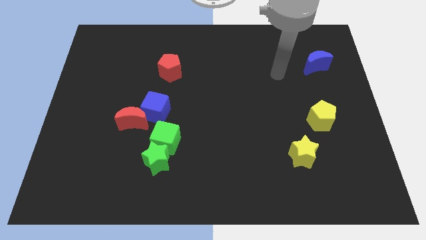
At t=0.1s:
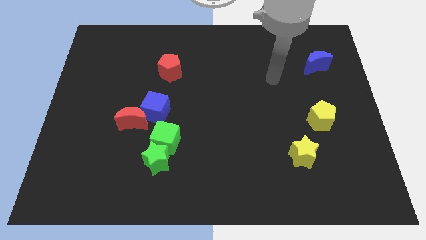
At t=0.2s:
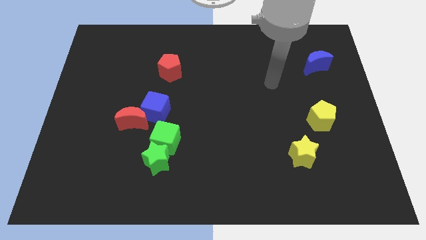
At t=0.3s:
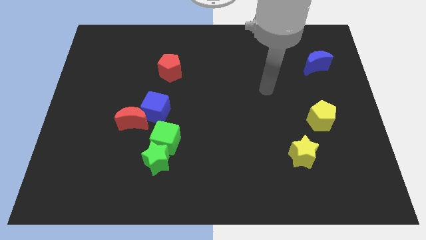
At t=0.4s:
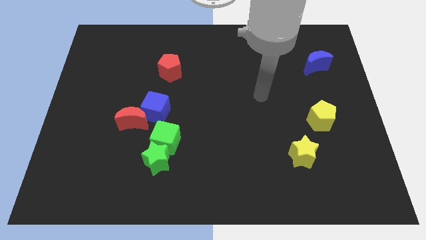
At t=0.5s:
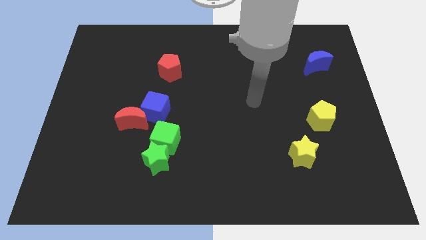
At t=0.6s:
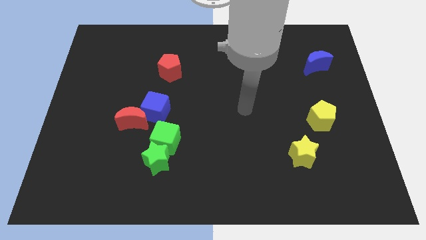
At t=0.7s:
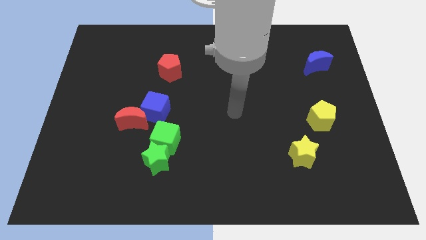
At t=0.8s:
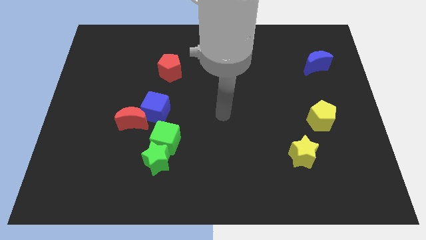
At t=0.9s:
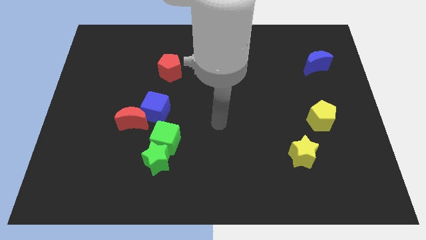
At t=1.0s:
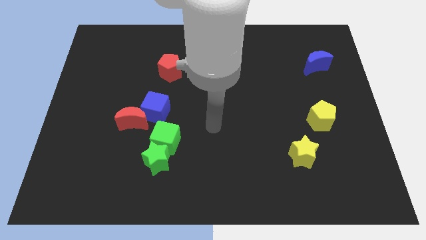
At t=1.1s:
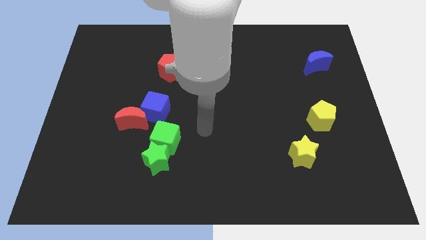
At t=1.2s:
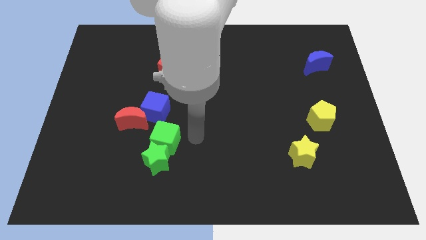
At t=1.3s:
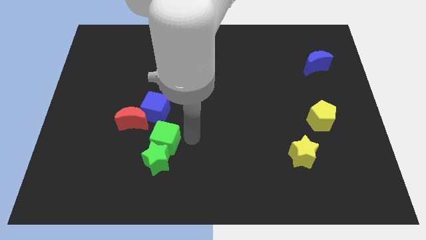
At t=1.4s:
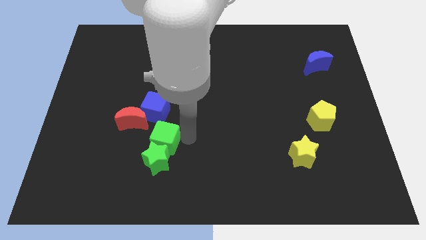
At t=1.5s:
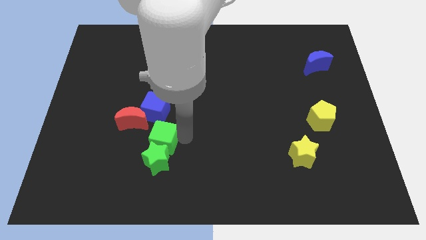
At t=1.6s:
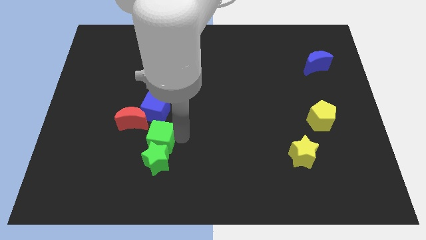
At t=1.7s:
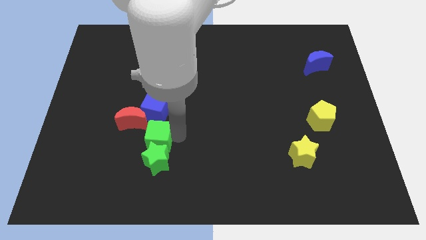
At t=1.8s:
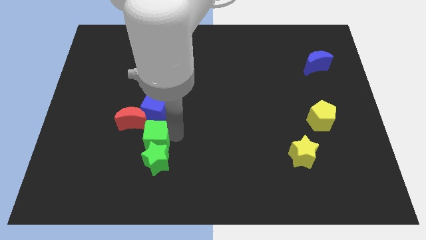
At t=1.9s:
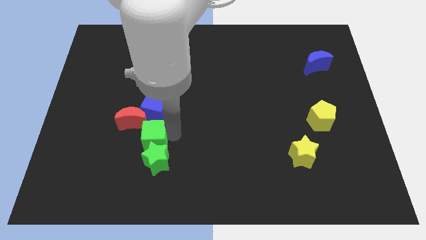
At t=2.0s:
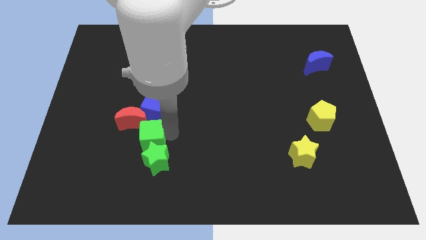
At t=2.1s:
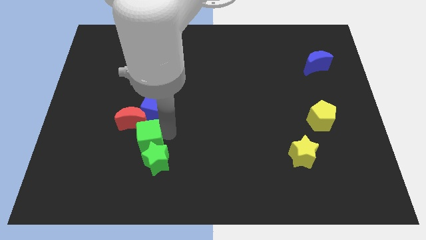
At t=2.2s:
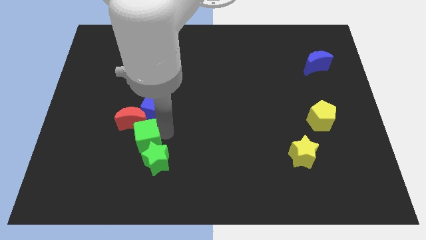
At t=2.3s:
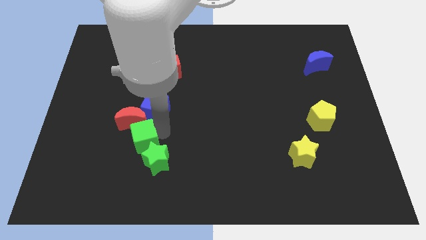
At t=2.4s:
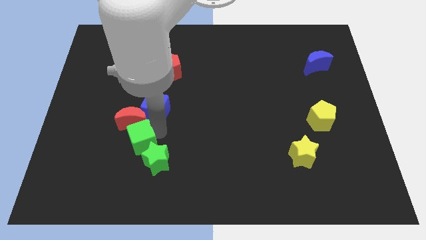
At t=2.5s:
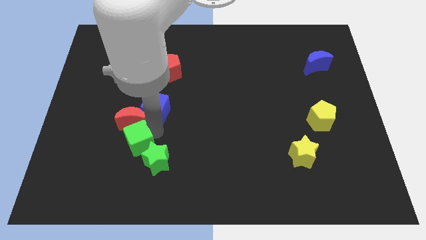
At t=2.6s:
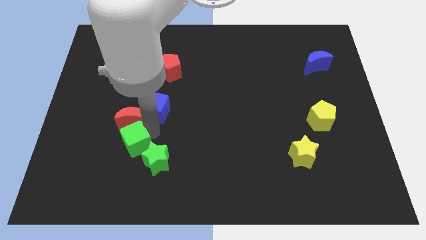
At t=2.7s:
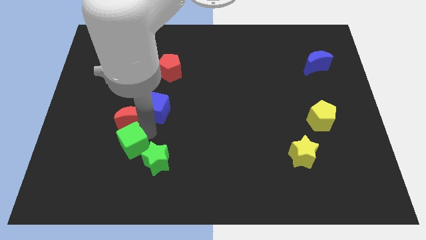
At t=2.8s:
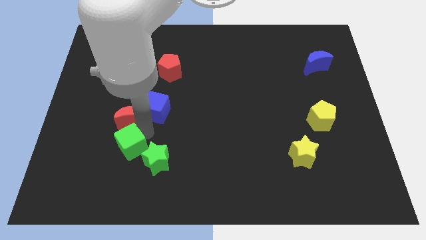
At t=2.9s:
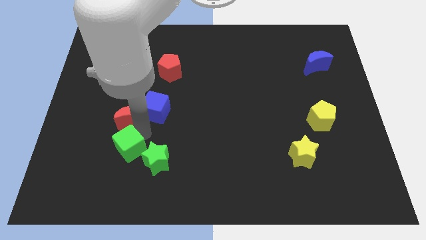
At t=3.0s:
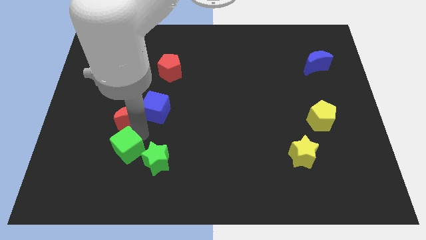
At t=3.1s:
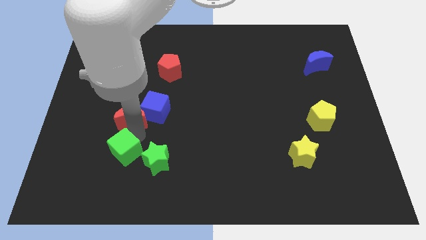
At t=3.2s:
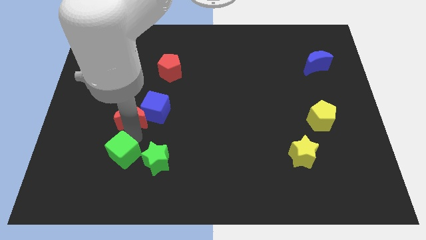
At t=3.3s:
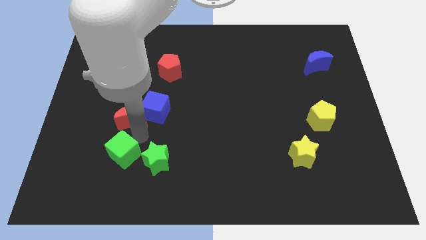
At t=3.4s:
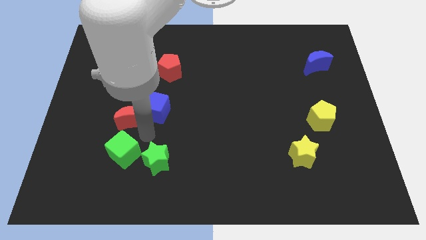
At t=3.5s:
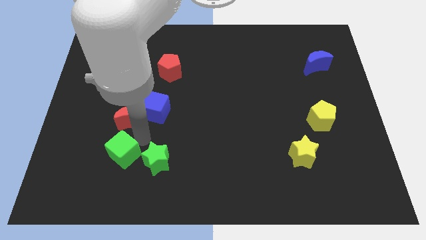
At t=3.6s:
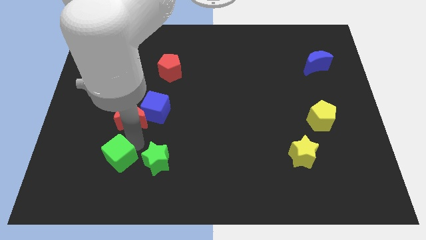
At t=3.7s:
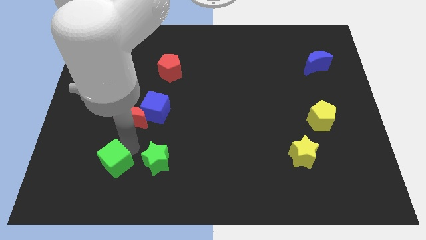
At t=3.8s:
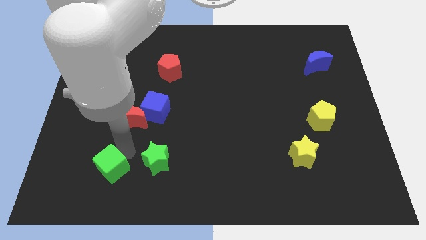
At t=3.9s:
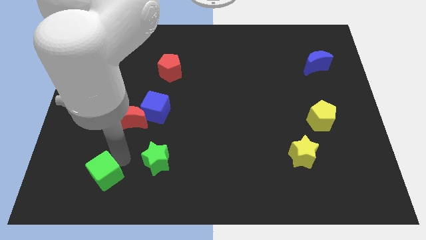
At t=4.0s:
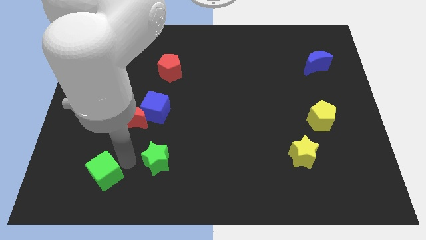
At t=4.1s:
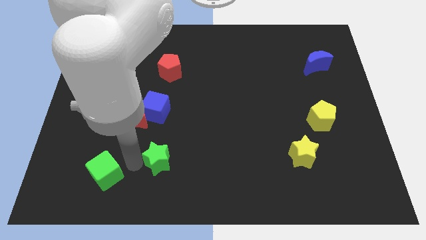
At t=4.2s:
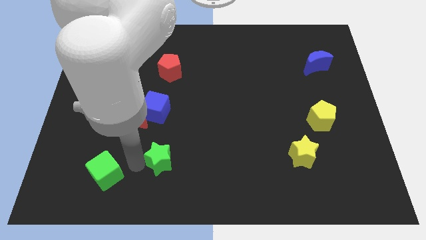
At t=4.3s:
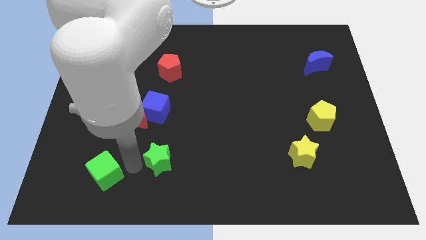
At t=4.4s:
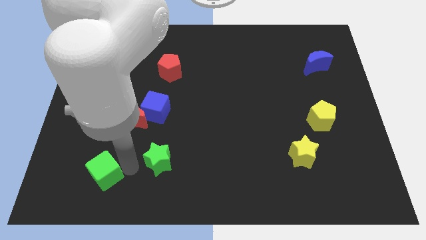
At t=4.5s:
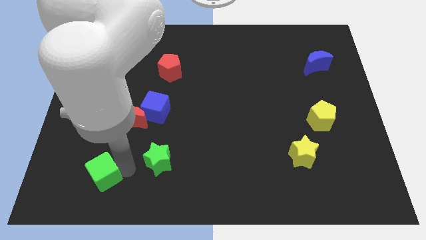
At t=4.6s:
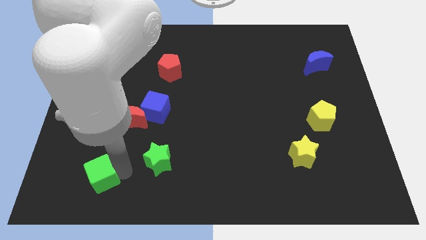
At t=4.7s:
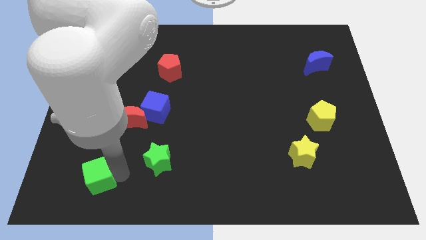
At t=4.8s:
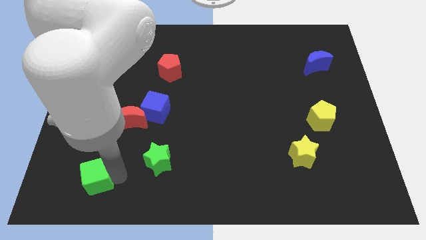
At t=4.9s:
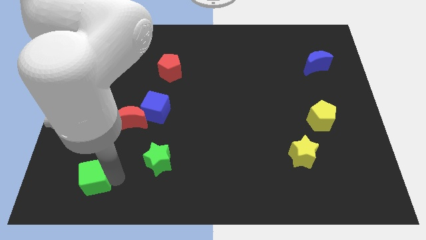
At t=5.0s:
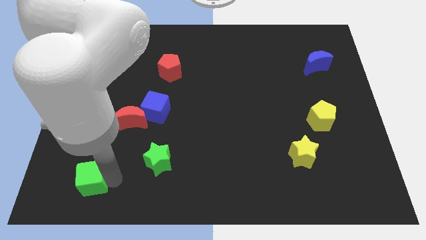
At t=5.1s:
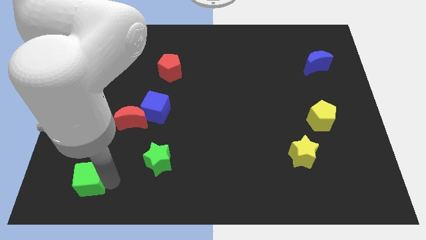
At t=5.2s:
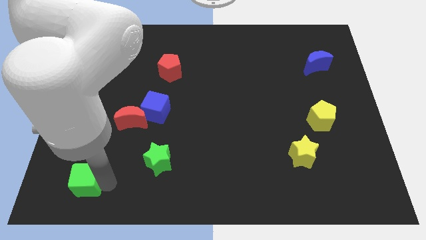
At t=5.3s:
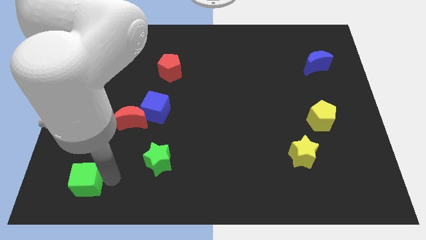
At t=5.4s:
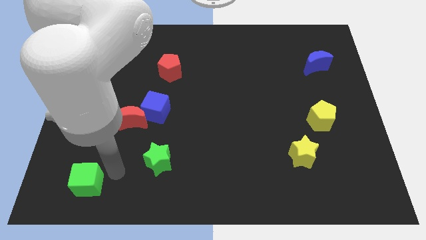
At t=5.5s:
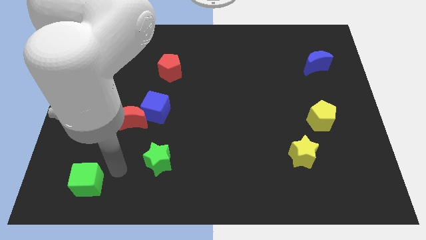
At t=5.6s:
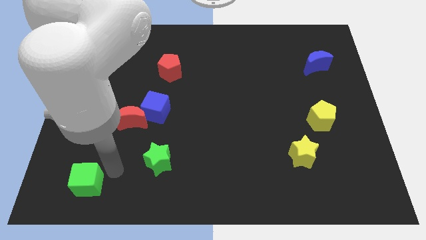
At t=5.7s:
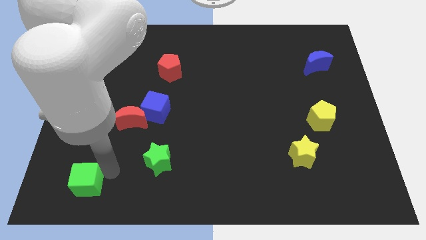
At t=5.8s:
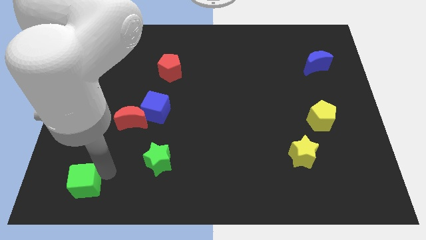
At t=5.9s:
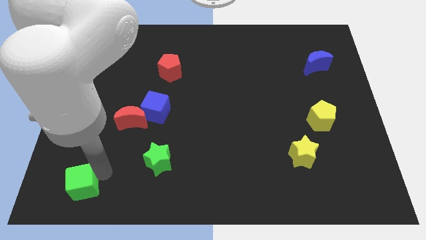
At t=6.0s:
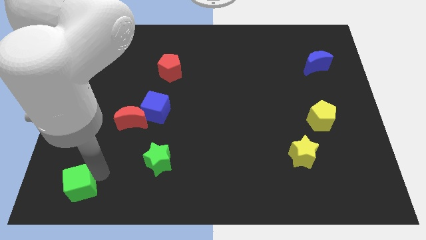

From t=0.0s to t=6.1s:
push the green cube to the bottom left corner
